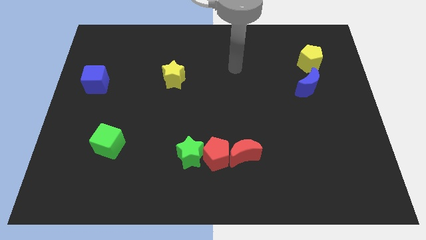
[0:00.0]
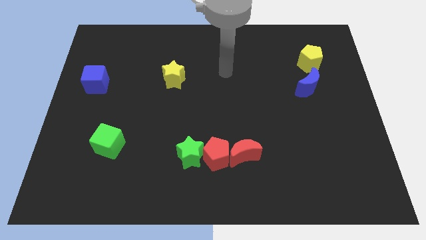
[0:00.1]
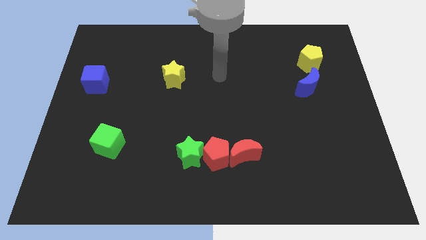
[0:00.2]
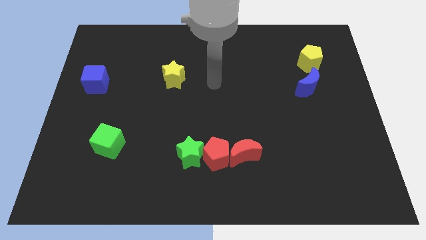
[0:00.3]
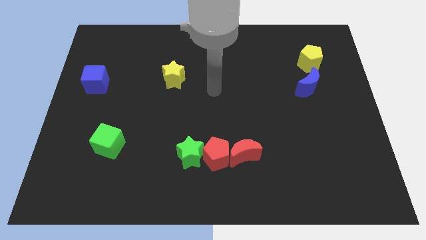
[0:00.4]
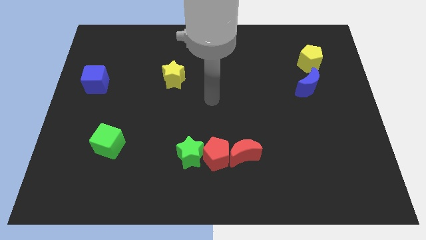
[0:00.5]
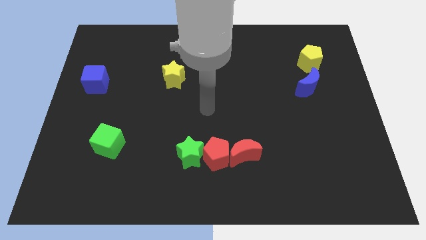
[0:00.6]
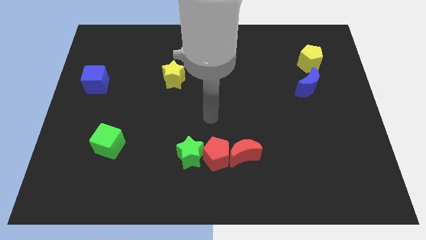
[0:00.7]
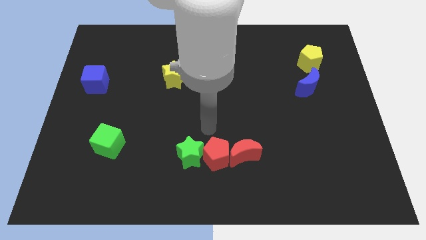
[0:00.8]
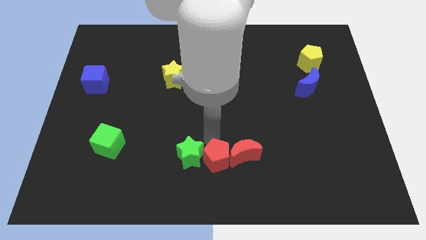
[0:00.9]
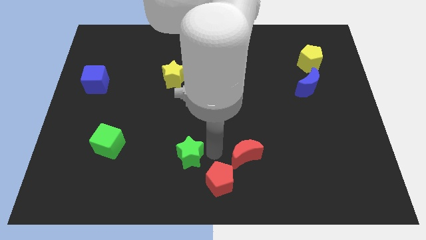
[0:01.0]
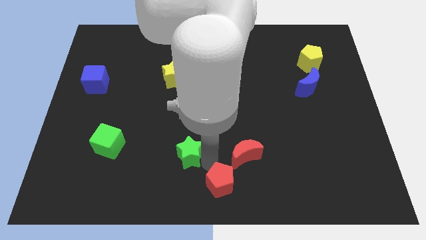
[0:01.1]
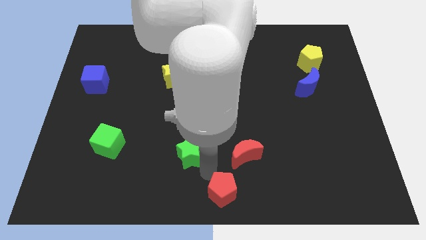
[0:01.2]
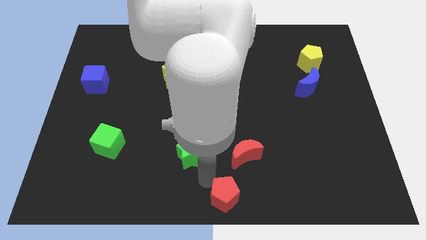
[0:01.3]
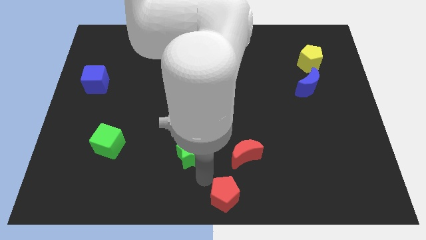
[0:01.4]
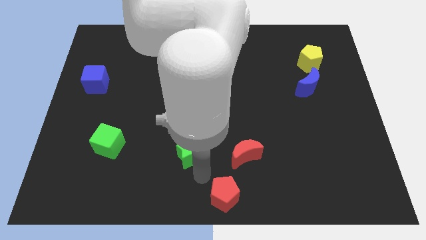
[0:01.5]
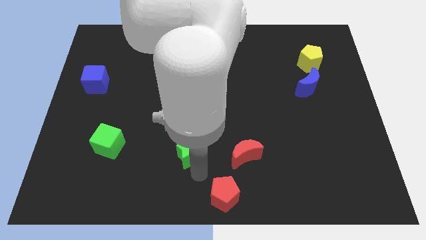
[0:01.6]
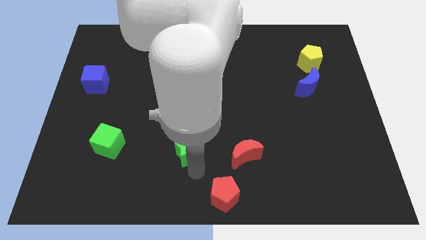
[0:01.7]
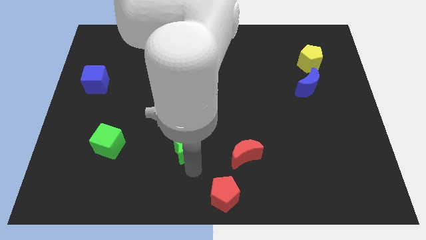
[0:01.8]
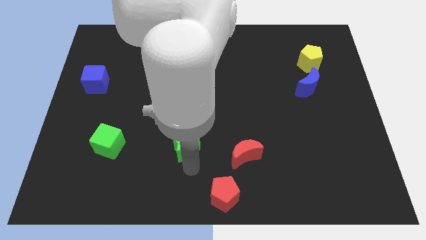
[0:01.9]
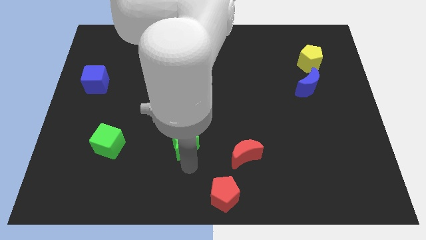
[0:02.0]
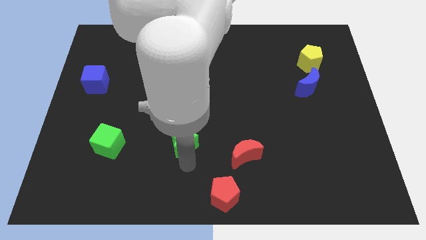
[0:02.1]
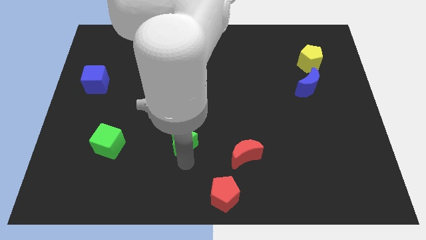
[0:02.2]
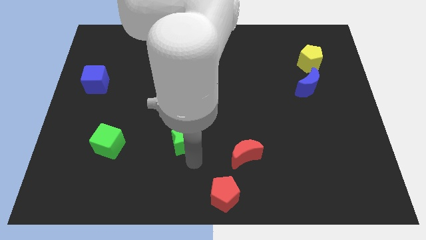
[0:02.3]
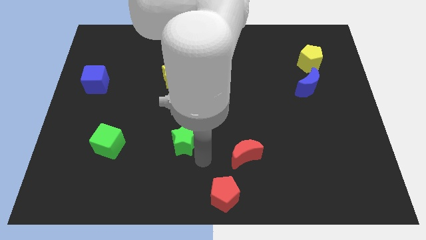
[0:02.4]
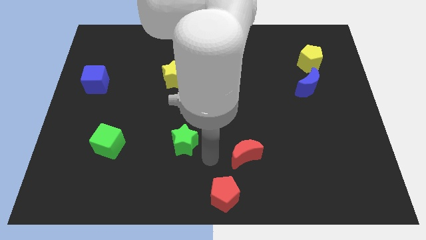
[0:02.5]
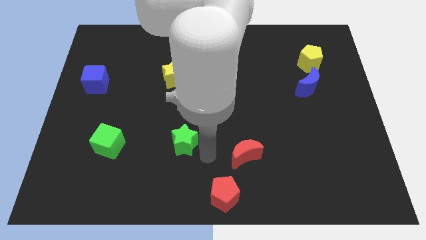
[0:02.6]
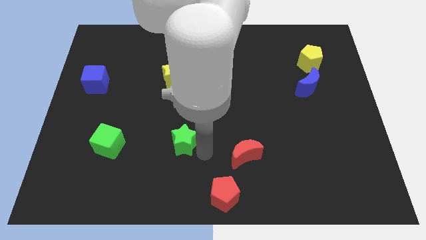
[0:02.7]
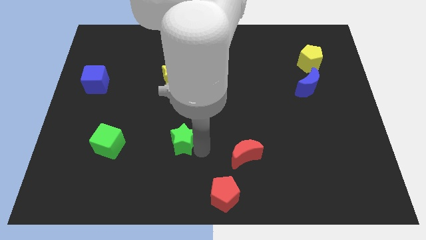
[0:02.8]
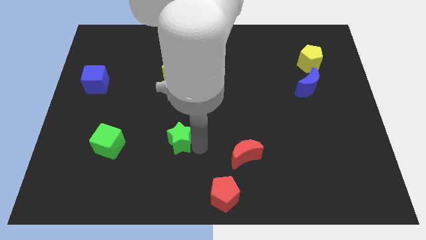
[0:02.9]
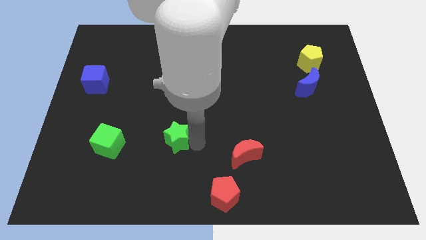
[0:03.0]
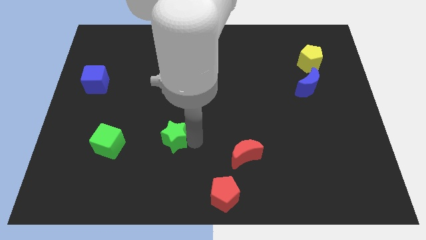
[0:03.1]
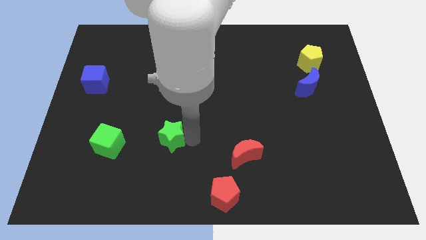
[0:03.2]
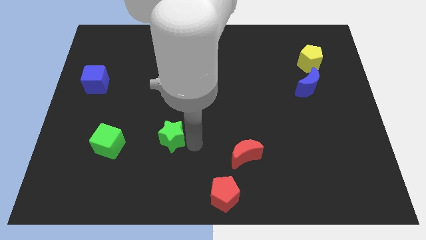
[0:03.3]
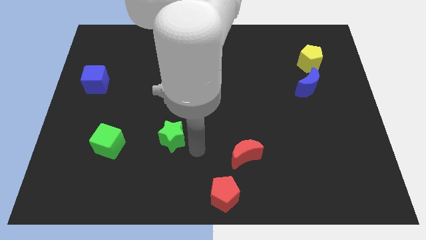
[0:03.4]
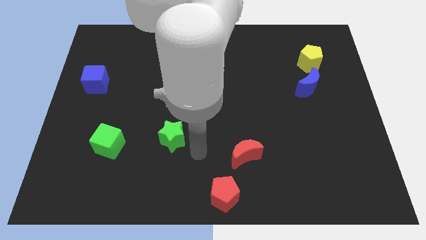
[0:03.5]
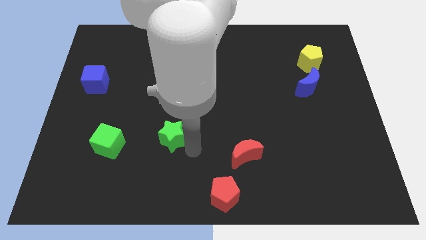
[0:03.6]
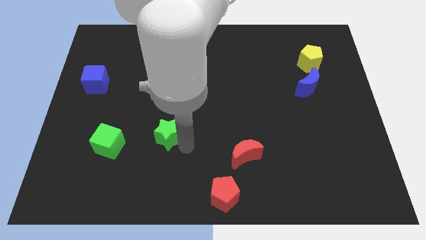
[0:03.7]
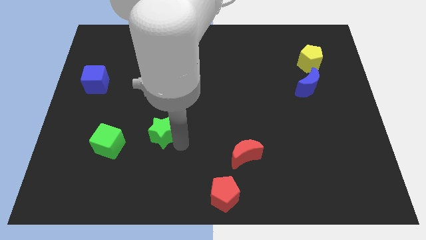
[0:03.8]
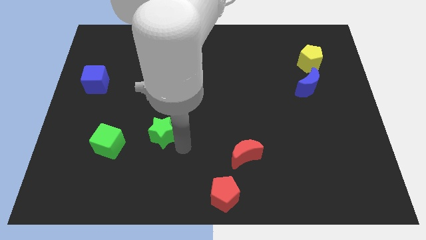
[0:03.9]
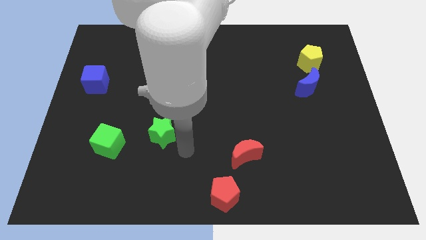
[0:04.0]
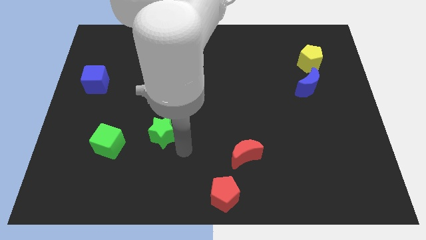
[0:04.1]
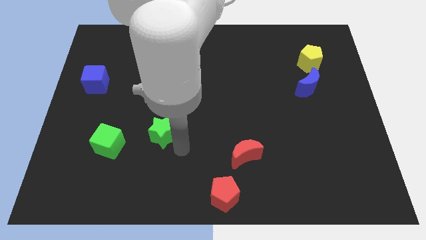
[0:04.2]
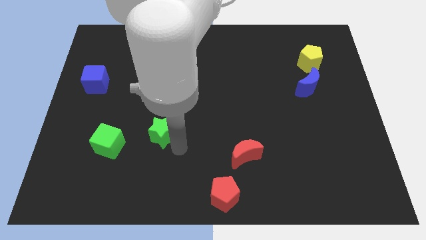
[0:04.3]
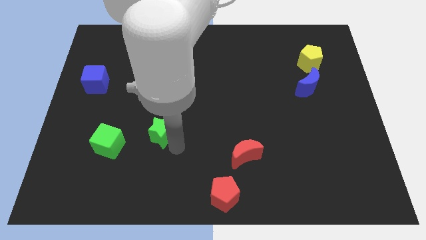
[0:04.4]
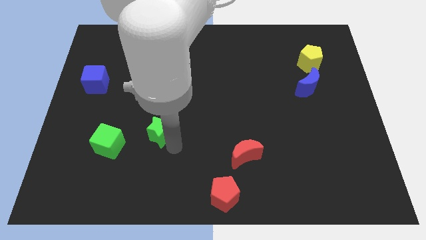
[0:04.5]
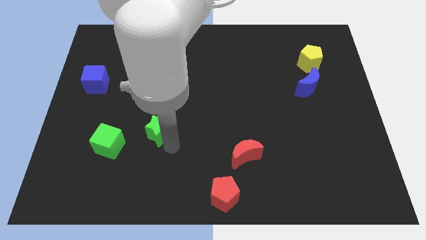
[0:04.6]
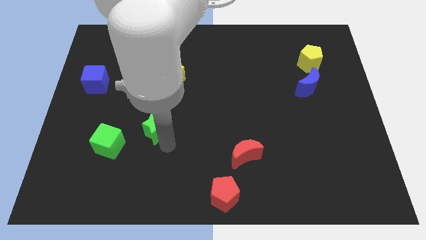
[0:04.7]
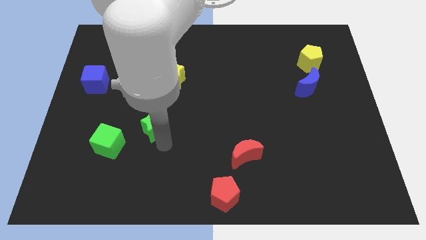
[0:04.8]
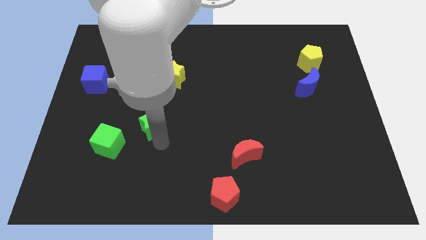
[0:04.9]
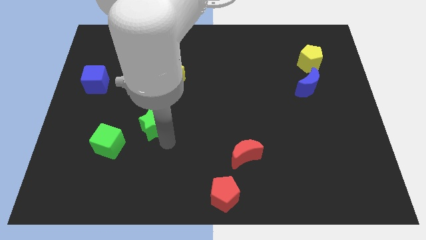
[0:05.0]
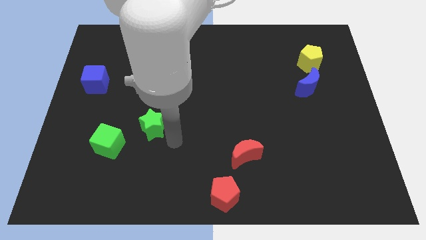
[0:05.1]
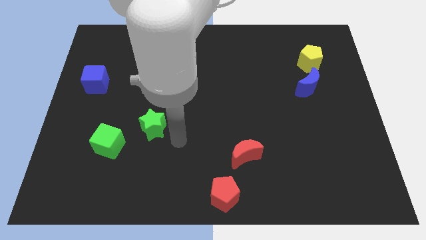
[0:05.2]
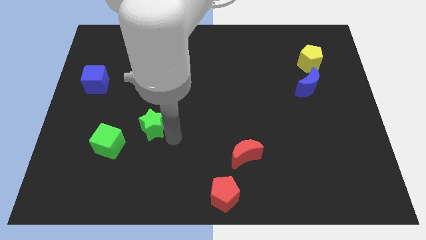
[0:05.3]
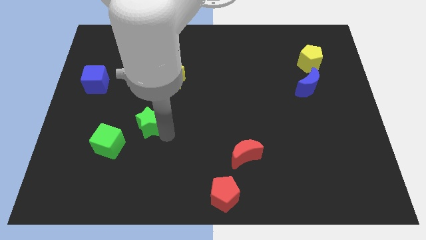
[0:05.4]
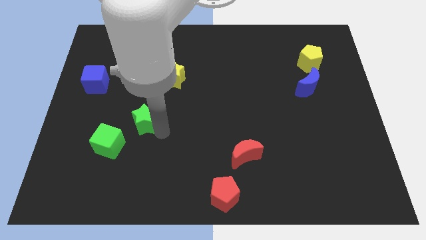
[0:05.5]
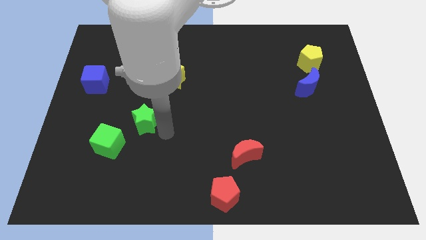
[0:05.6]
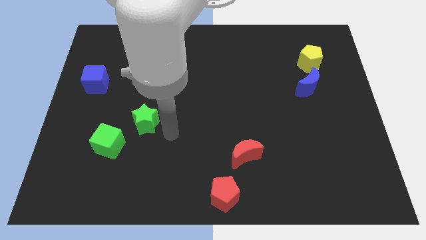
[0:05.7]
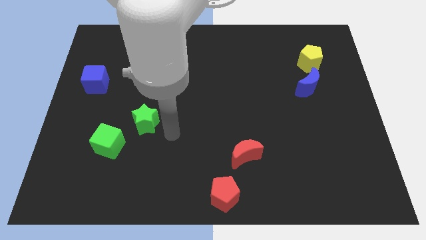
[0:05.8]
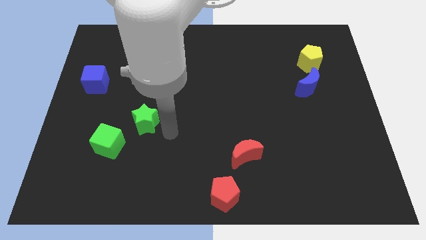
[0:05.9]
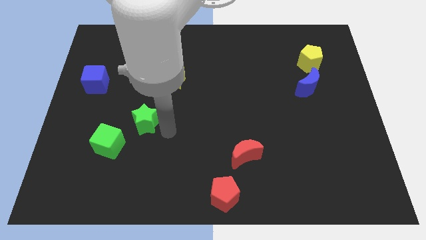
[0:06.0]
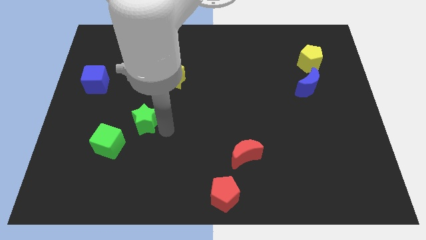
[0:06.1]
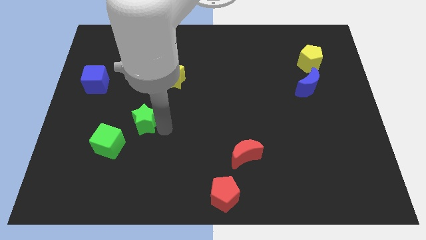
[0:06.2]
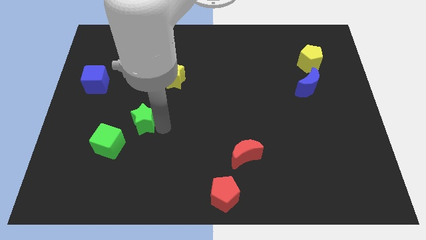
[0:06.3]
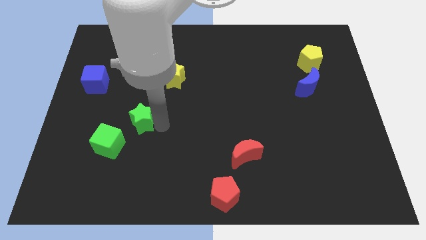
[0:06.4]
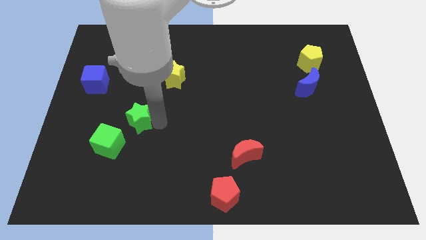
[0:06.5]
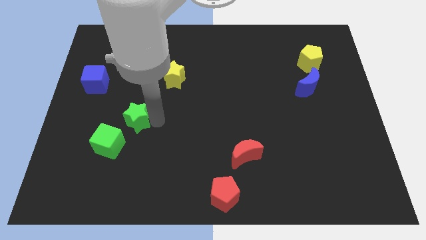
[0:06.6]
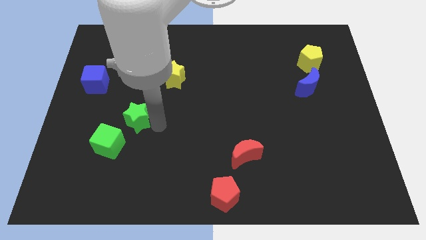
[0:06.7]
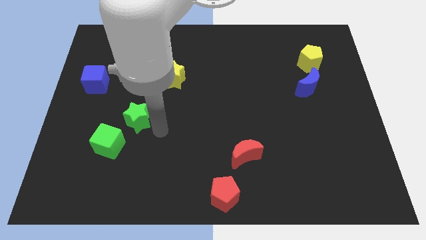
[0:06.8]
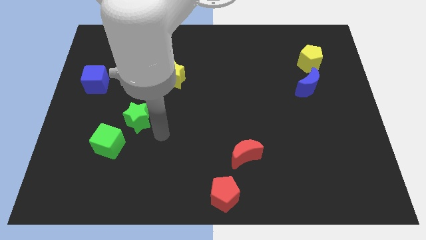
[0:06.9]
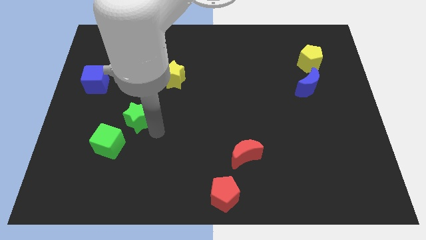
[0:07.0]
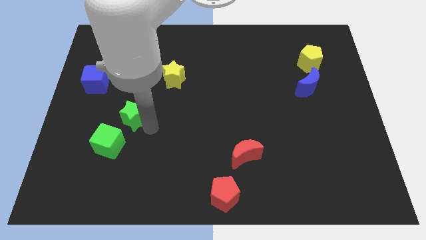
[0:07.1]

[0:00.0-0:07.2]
put the green star to the top side of the green cube

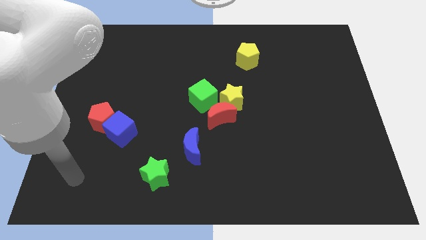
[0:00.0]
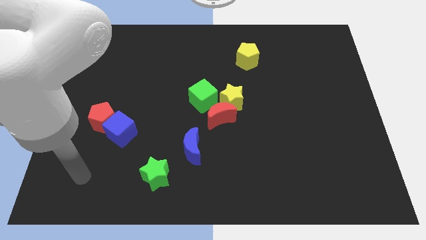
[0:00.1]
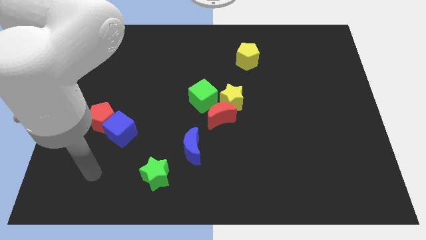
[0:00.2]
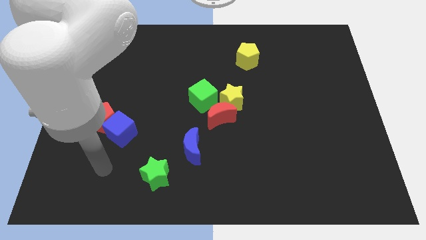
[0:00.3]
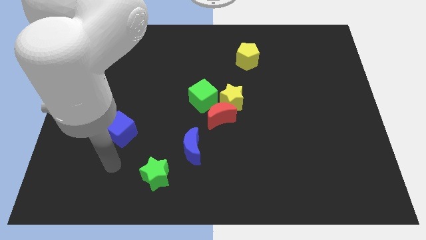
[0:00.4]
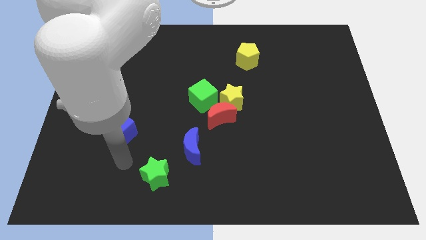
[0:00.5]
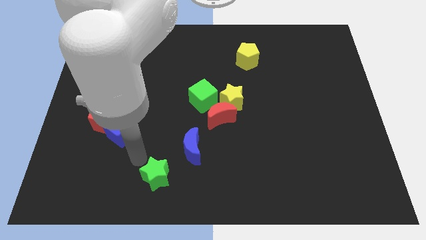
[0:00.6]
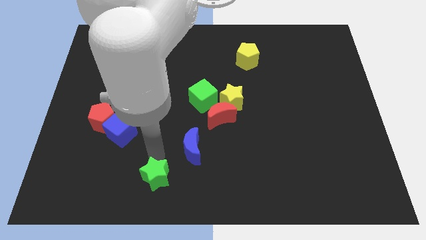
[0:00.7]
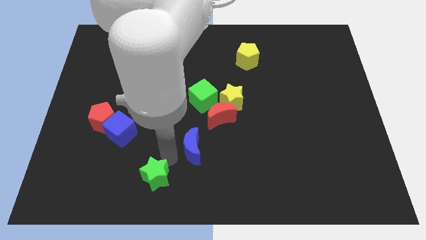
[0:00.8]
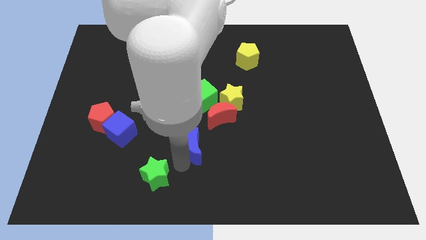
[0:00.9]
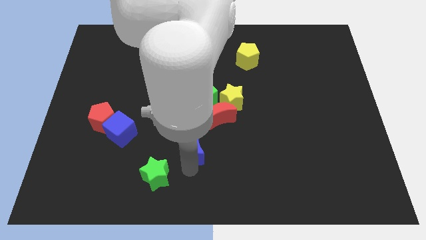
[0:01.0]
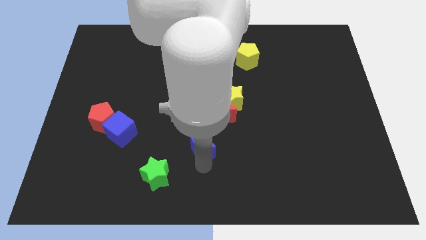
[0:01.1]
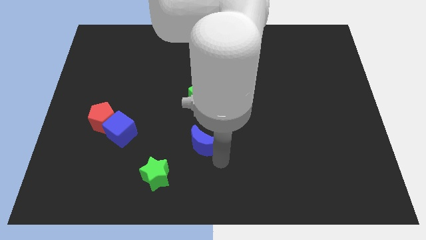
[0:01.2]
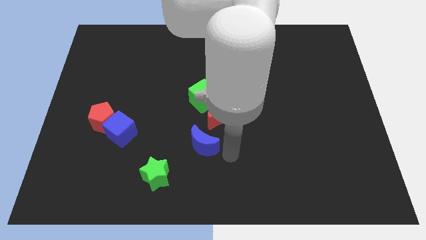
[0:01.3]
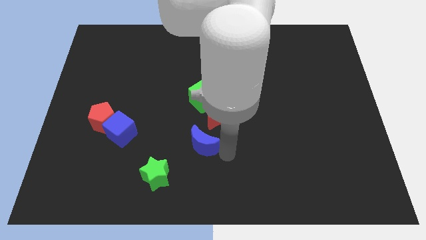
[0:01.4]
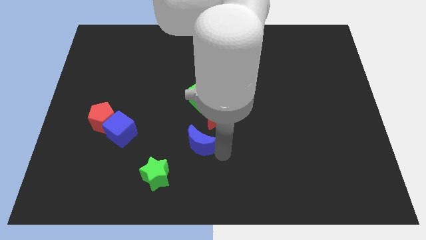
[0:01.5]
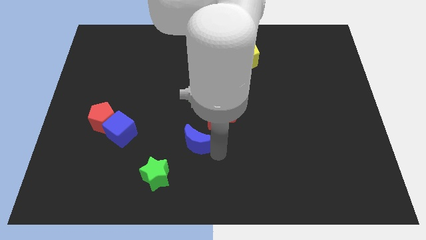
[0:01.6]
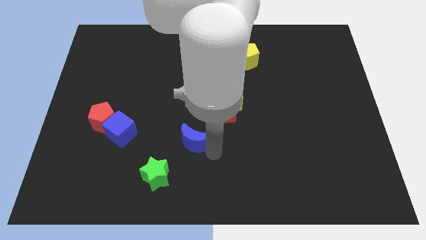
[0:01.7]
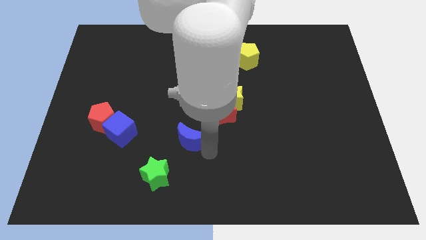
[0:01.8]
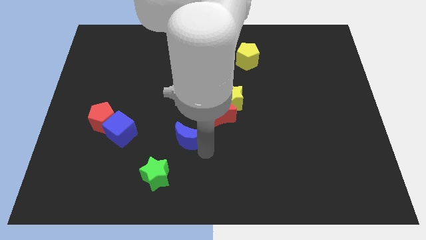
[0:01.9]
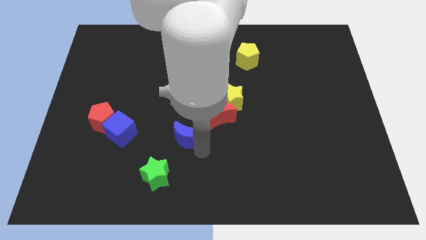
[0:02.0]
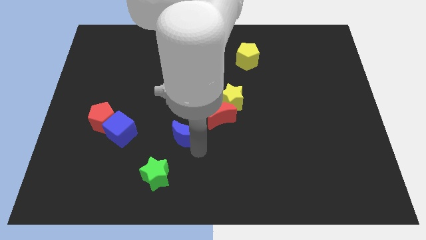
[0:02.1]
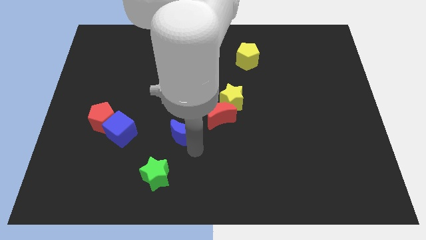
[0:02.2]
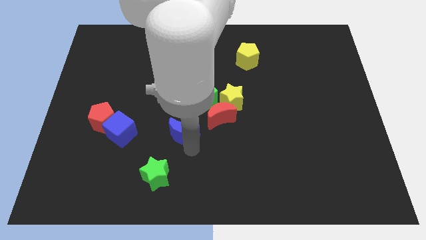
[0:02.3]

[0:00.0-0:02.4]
push the blue moon to the top side of the green star
